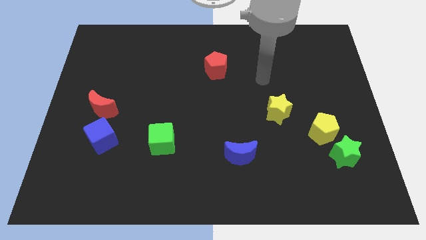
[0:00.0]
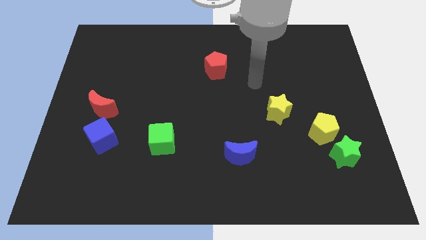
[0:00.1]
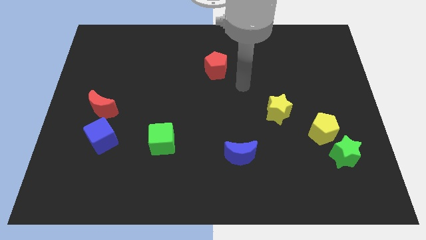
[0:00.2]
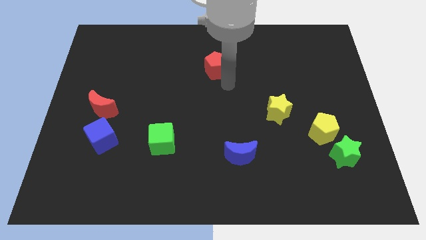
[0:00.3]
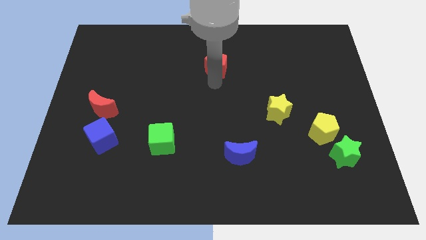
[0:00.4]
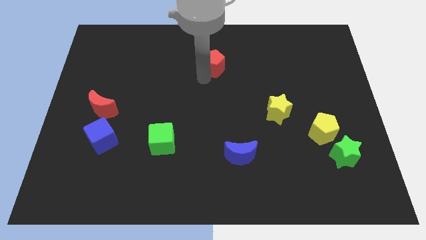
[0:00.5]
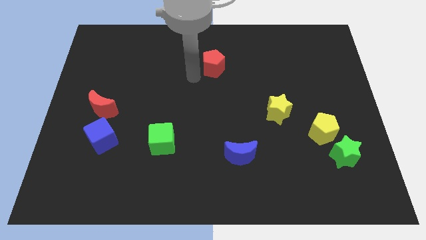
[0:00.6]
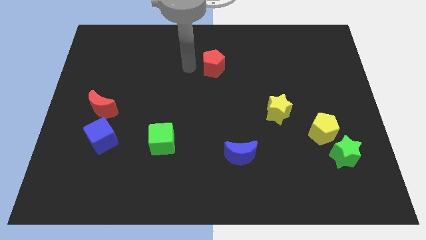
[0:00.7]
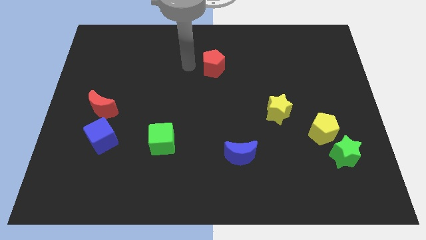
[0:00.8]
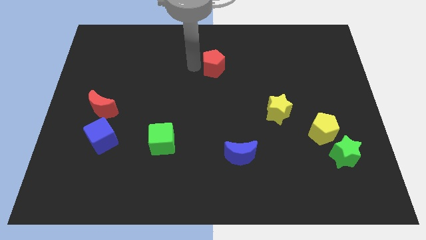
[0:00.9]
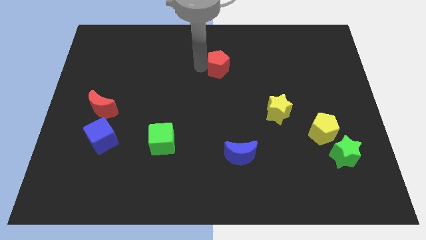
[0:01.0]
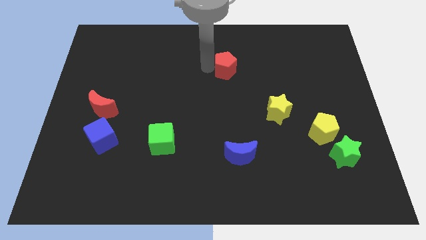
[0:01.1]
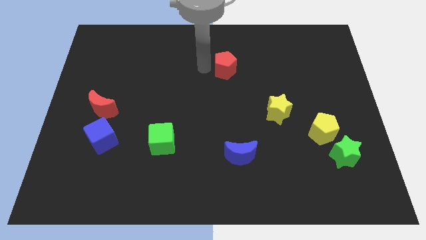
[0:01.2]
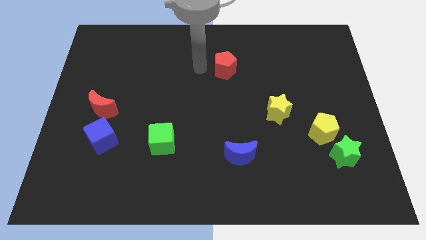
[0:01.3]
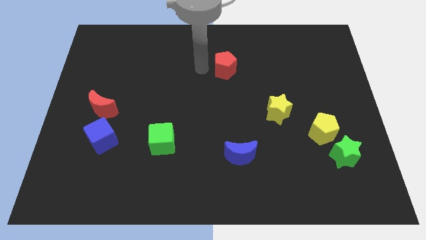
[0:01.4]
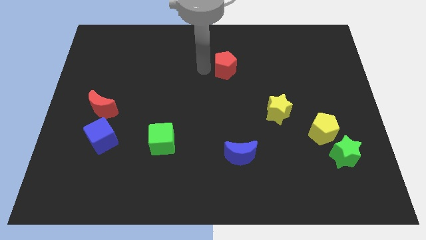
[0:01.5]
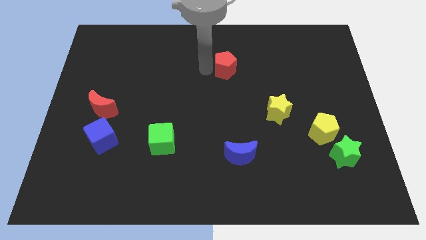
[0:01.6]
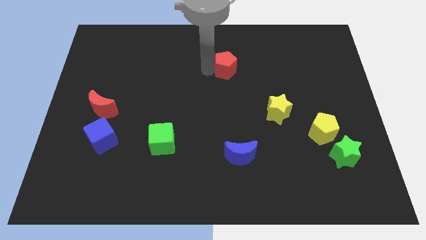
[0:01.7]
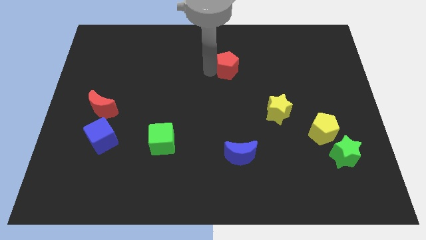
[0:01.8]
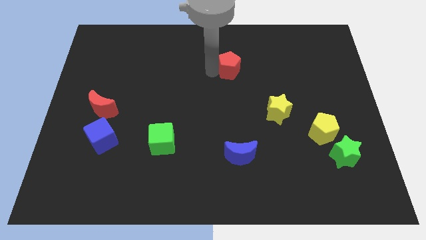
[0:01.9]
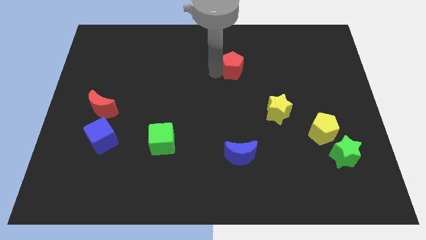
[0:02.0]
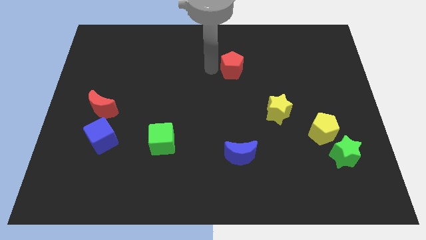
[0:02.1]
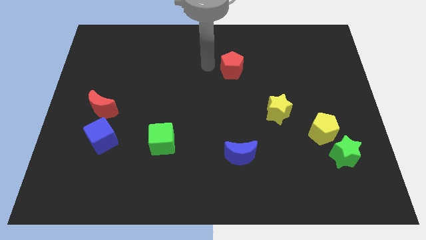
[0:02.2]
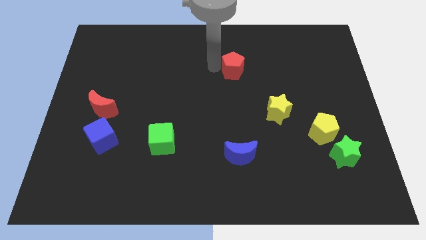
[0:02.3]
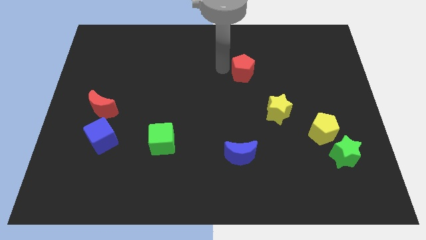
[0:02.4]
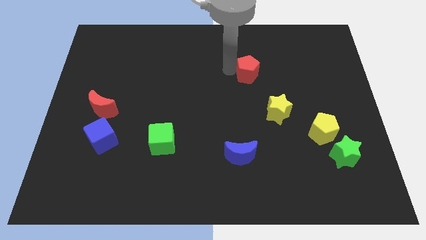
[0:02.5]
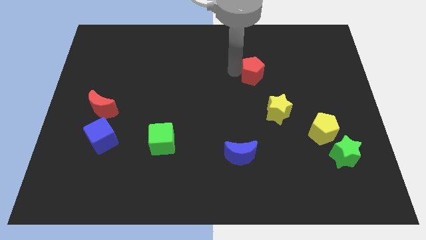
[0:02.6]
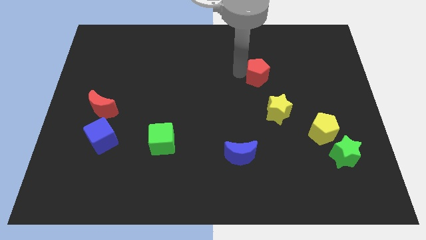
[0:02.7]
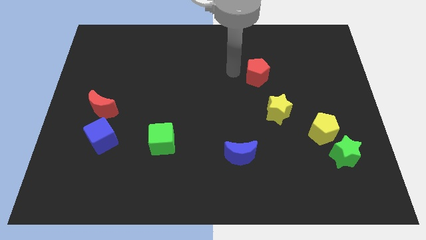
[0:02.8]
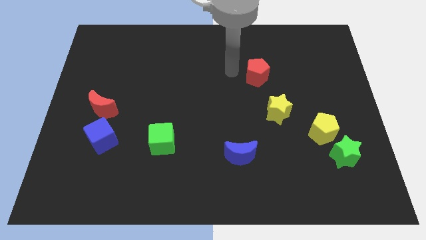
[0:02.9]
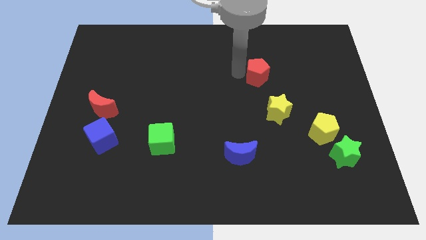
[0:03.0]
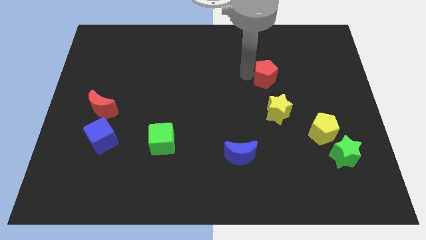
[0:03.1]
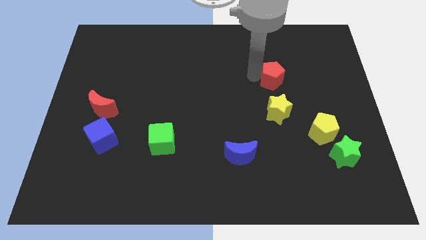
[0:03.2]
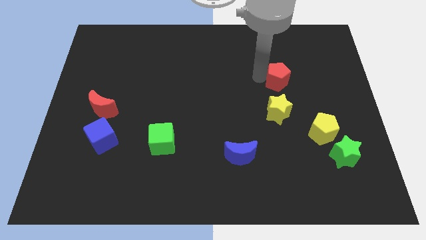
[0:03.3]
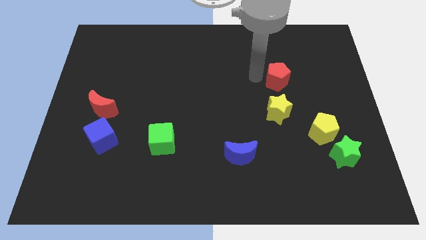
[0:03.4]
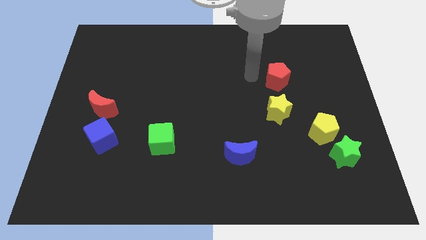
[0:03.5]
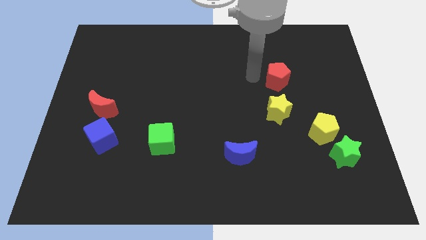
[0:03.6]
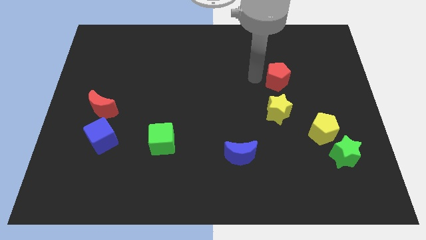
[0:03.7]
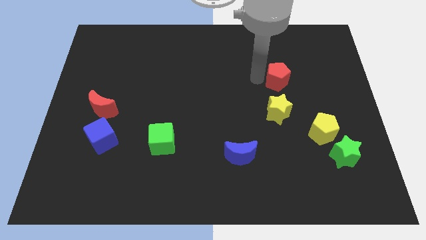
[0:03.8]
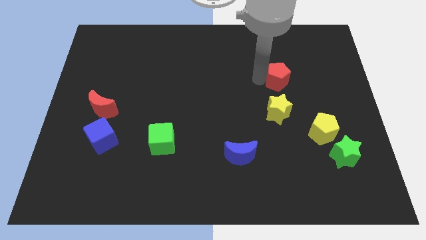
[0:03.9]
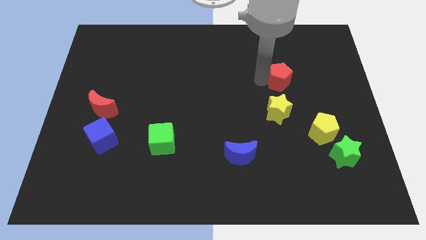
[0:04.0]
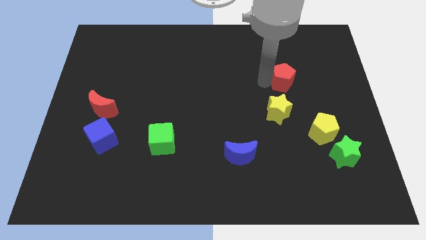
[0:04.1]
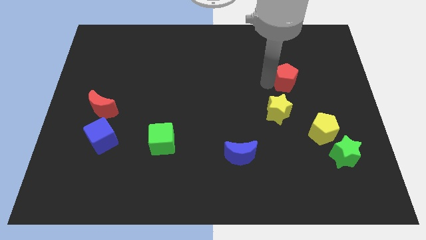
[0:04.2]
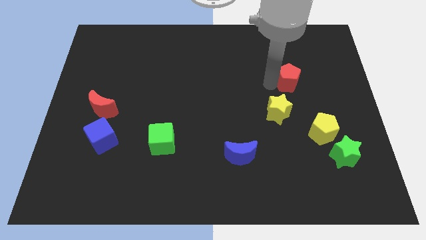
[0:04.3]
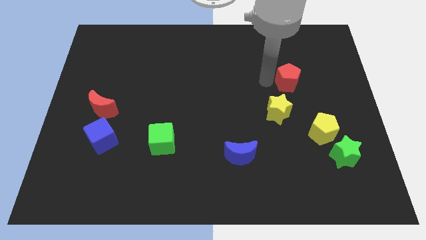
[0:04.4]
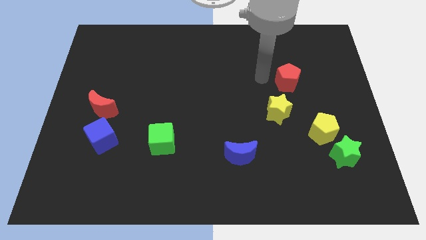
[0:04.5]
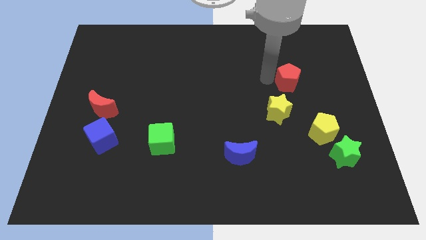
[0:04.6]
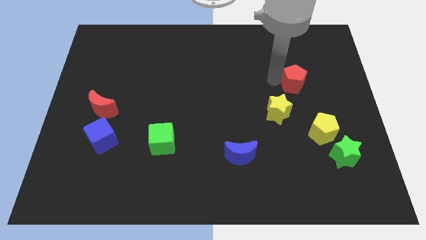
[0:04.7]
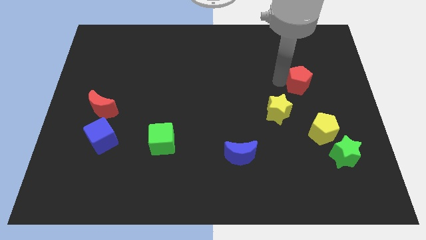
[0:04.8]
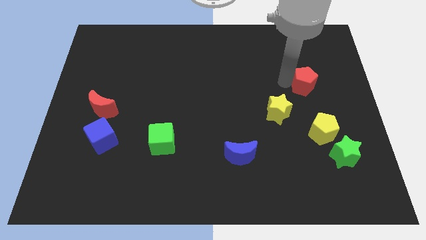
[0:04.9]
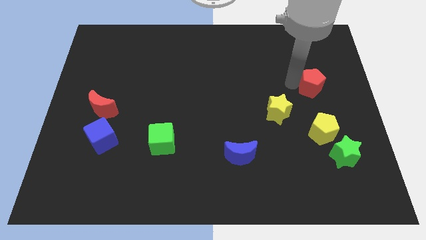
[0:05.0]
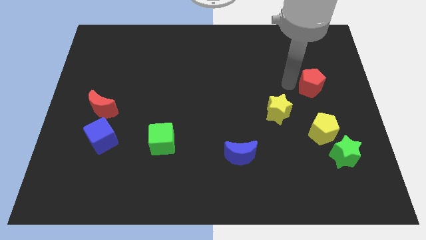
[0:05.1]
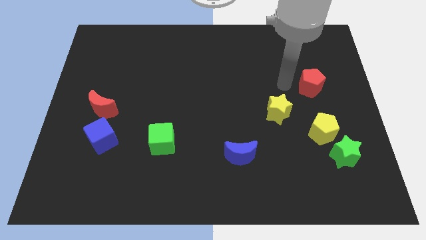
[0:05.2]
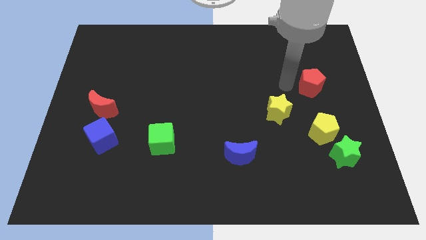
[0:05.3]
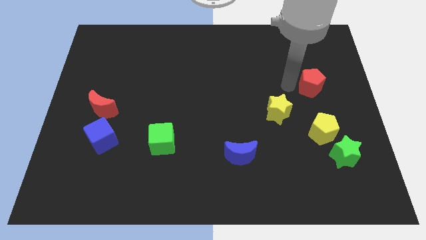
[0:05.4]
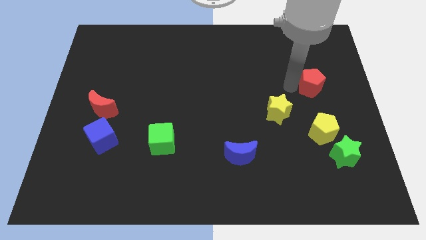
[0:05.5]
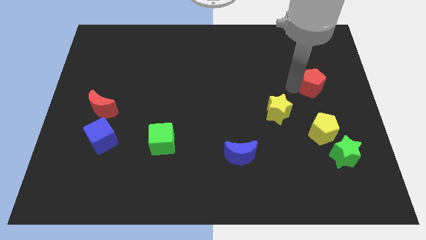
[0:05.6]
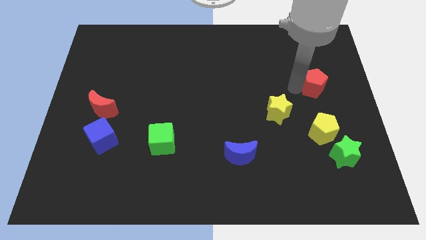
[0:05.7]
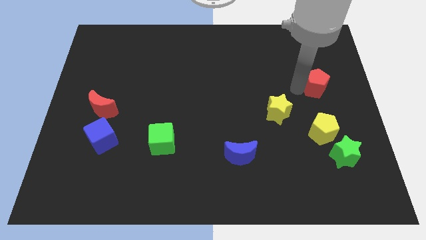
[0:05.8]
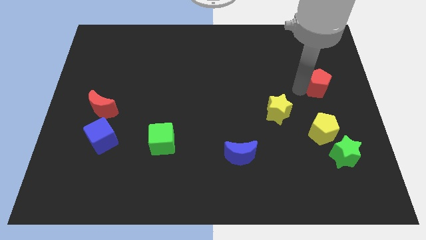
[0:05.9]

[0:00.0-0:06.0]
slide the red pentagon to the center right

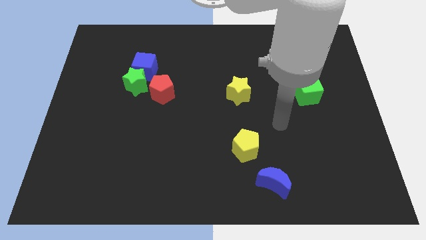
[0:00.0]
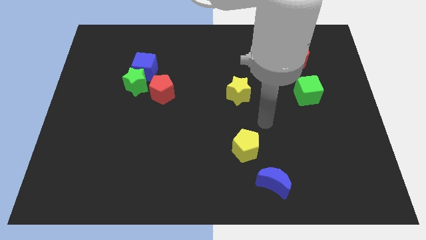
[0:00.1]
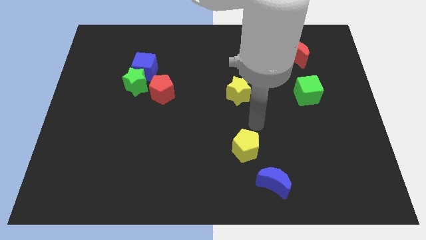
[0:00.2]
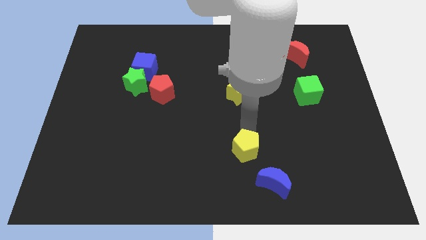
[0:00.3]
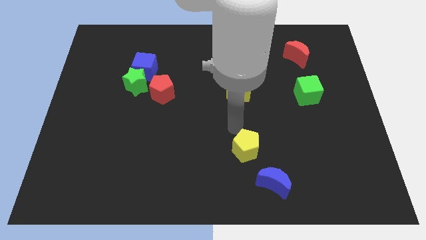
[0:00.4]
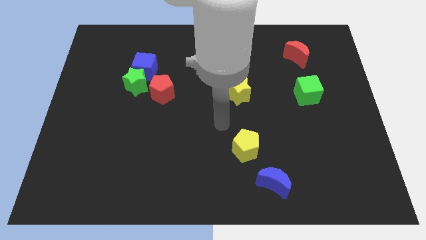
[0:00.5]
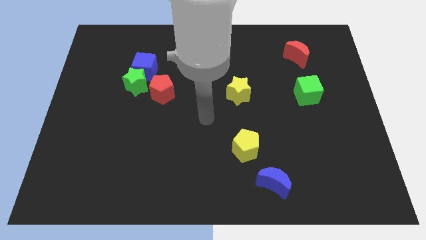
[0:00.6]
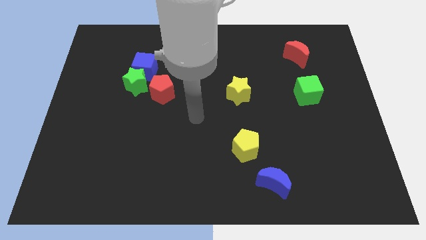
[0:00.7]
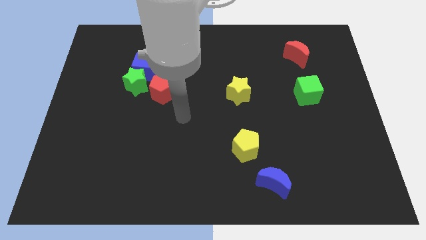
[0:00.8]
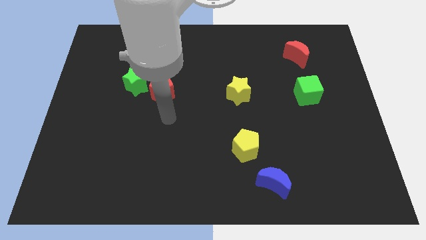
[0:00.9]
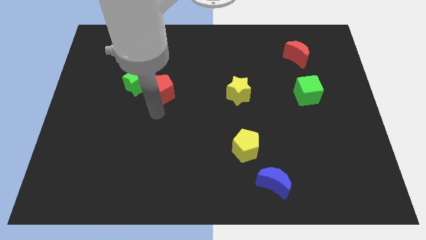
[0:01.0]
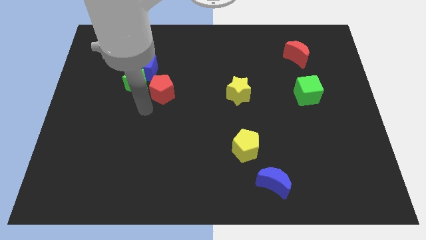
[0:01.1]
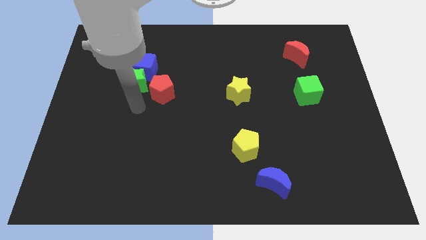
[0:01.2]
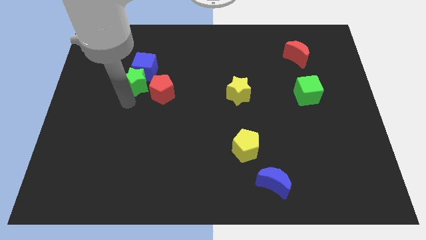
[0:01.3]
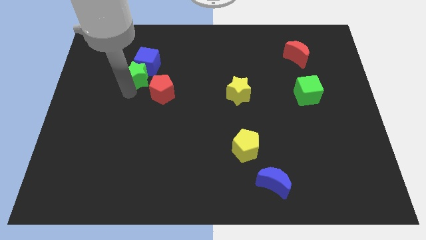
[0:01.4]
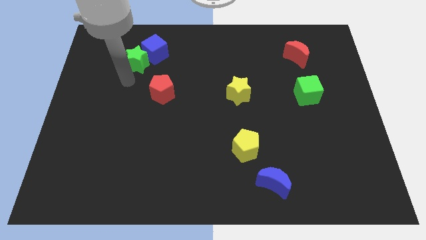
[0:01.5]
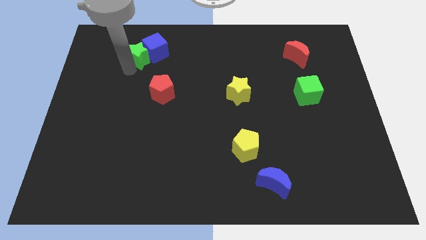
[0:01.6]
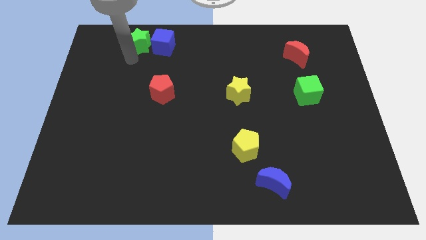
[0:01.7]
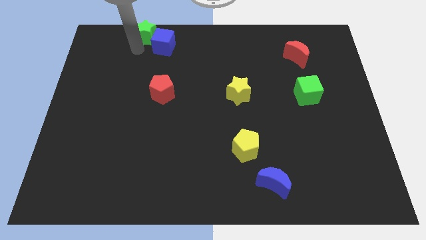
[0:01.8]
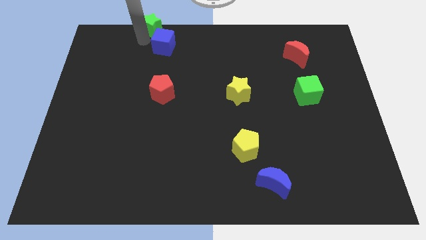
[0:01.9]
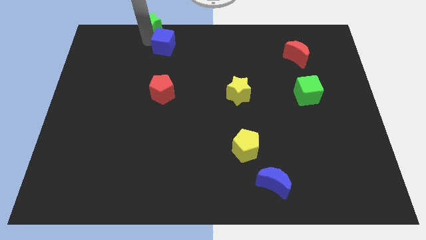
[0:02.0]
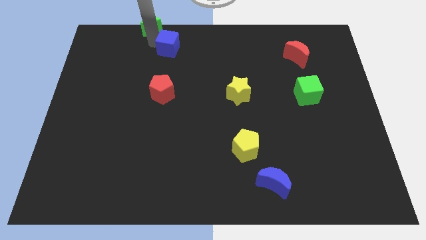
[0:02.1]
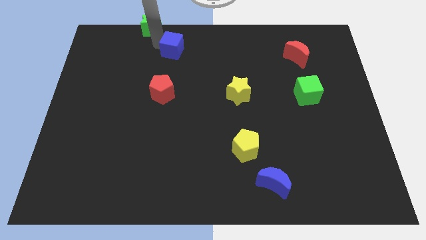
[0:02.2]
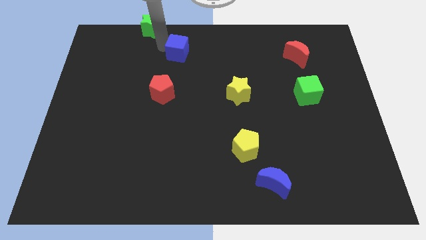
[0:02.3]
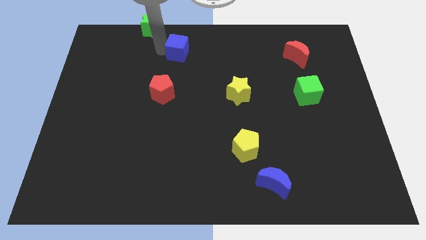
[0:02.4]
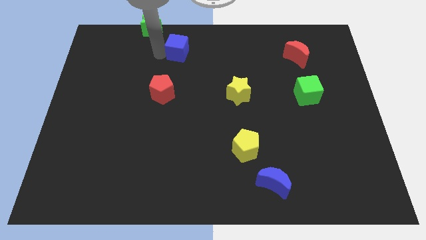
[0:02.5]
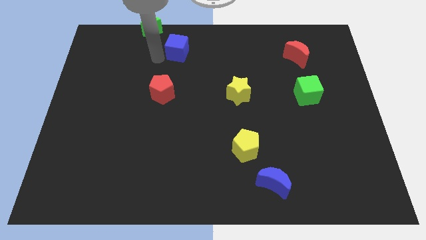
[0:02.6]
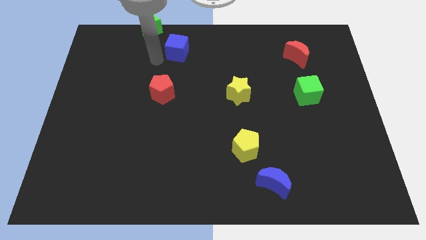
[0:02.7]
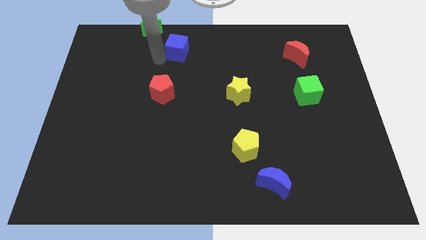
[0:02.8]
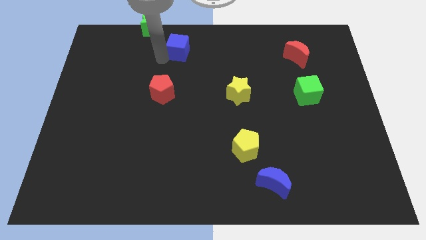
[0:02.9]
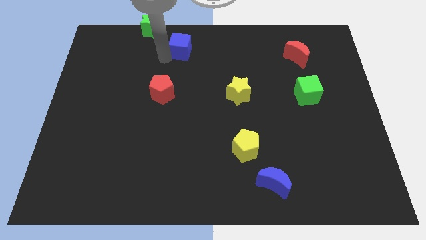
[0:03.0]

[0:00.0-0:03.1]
push the blue cube to the top side
